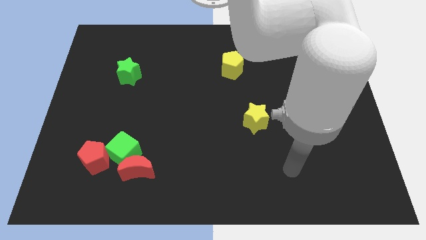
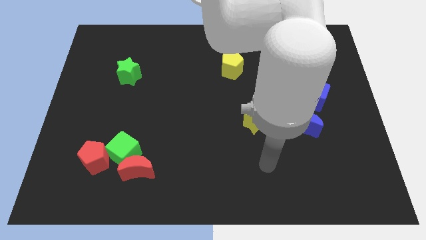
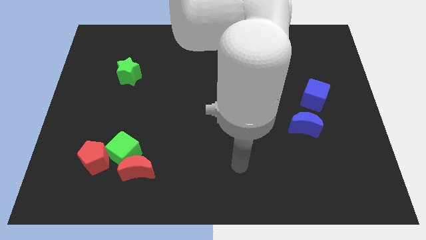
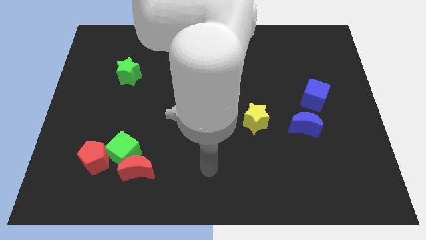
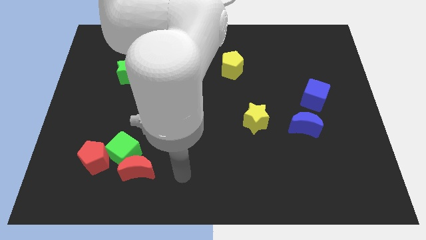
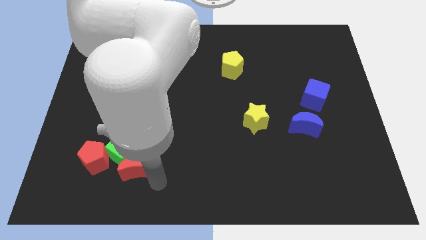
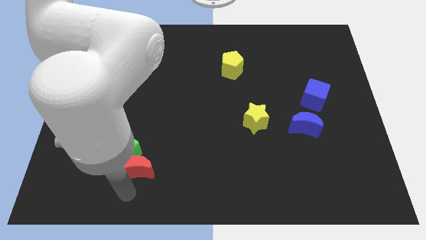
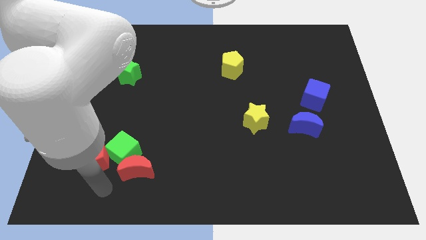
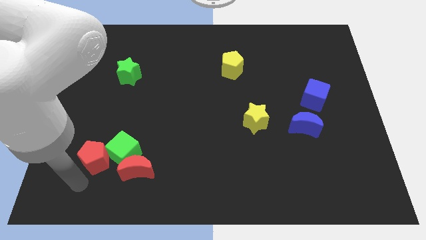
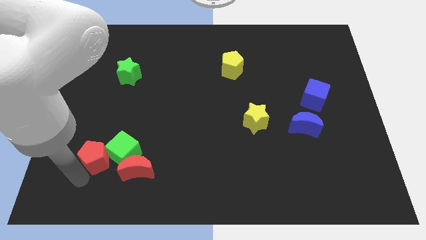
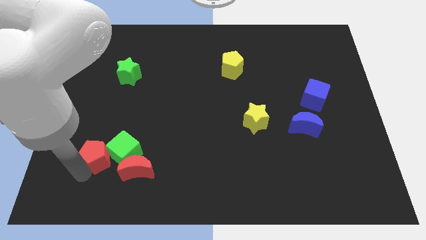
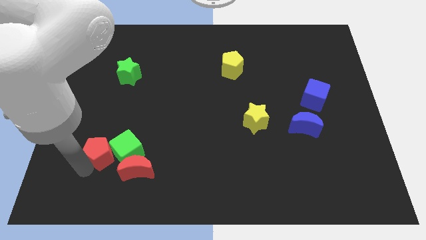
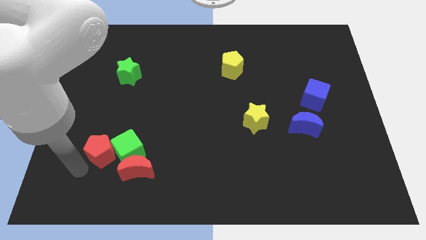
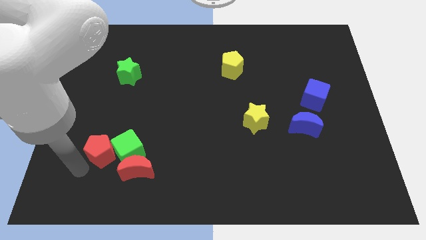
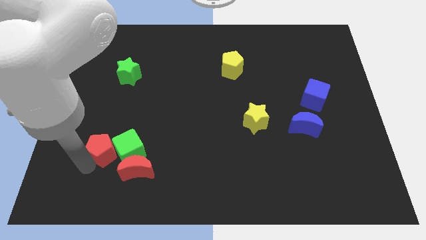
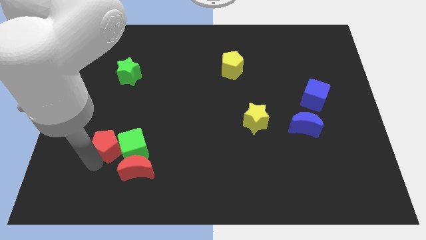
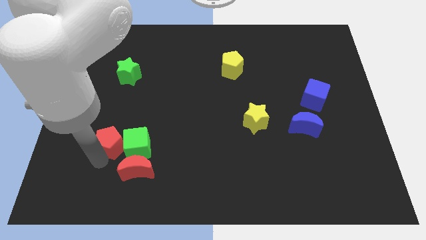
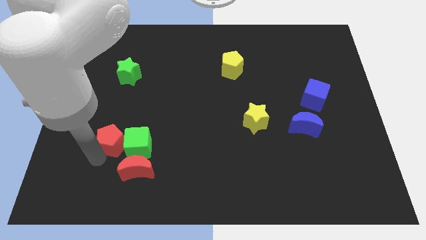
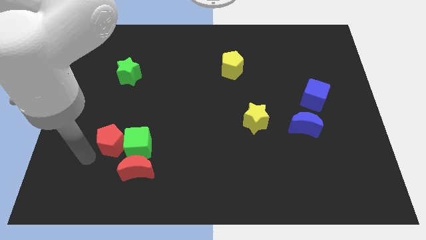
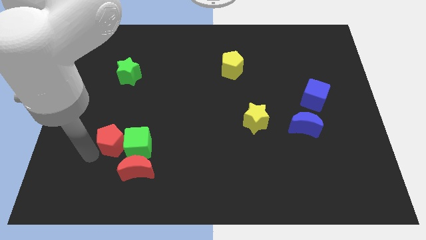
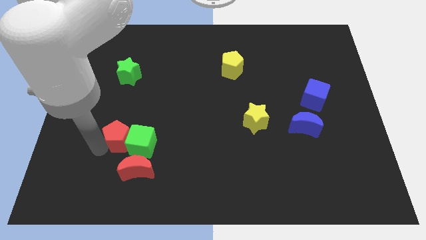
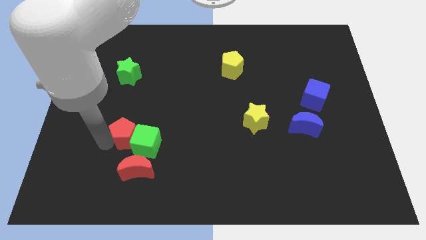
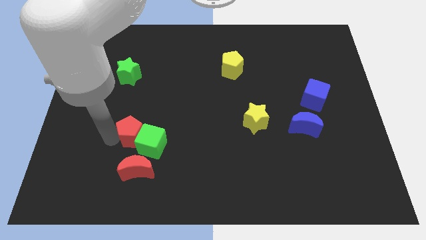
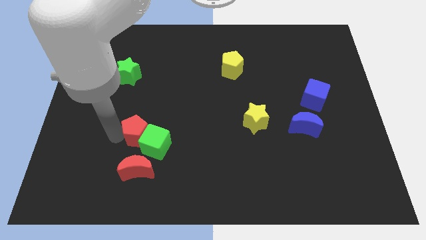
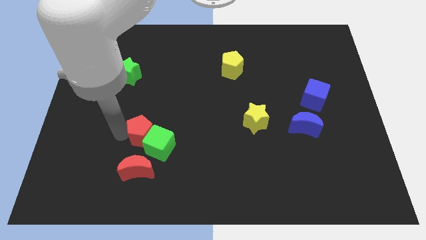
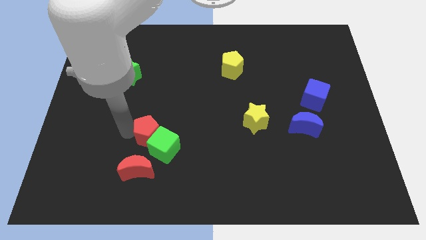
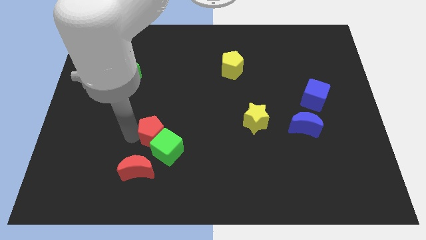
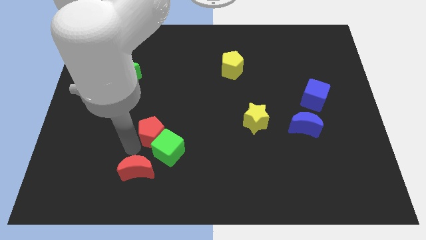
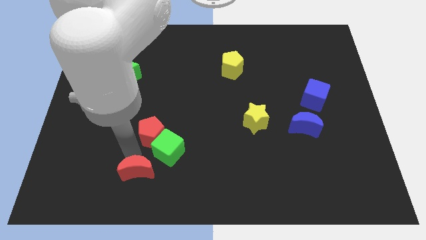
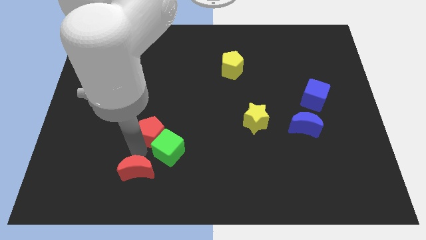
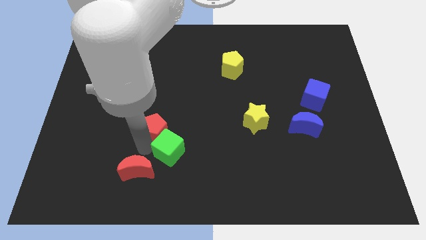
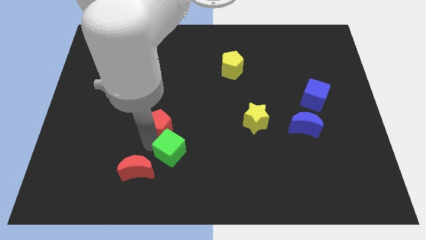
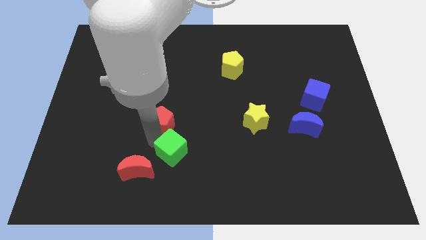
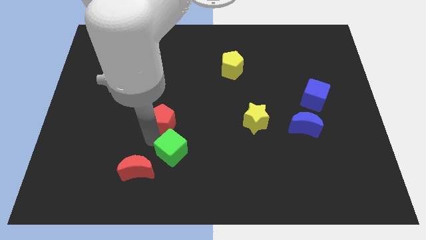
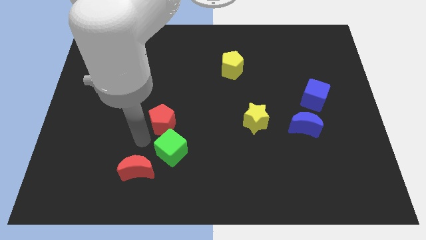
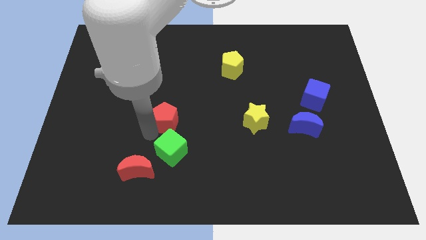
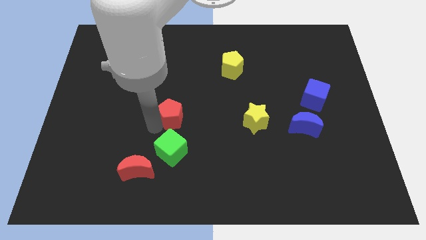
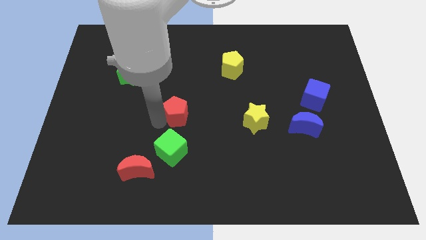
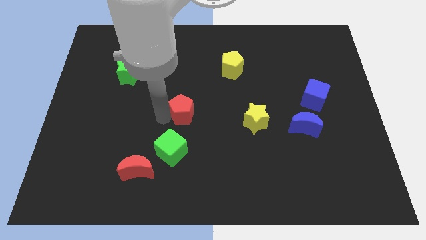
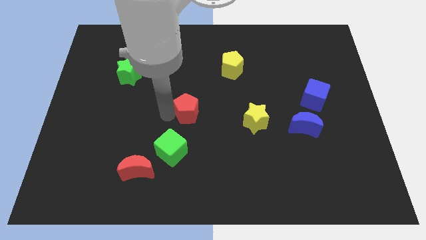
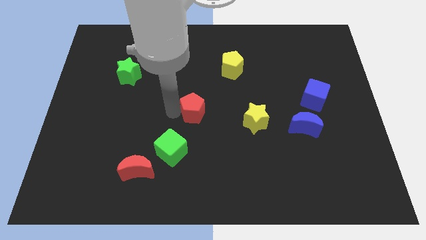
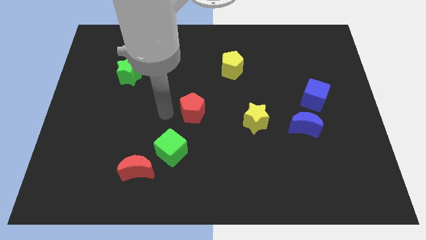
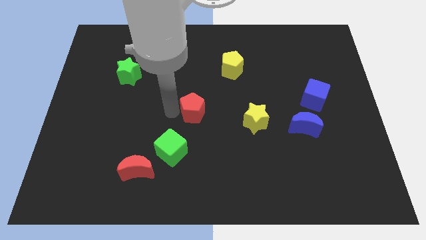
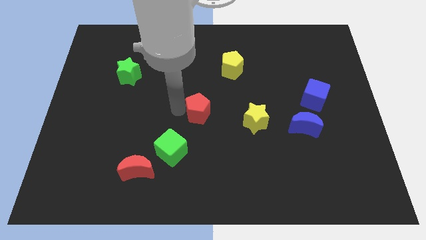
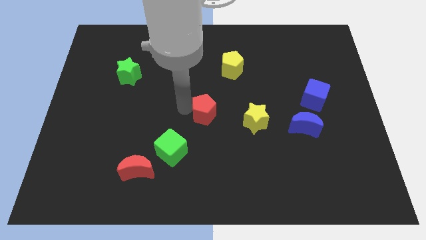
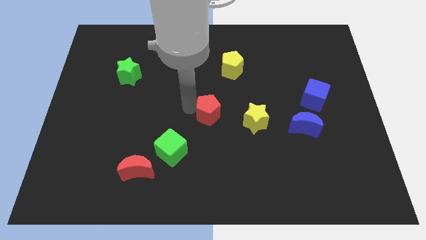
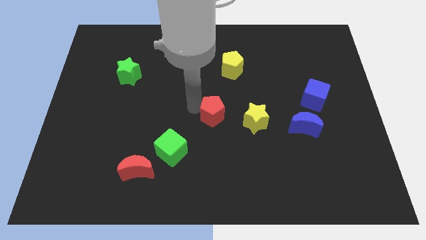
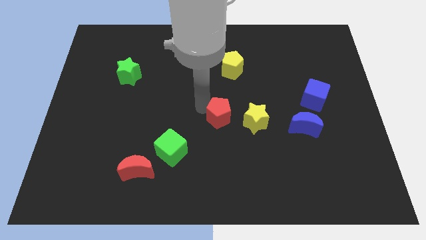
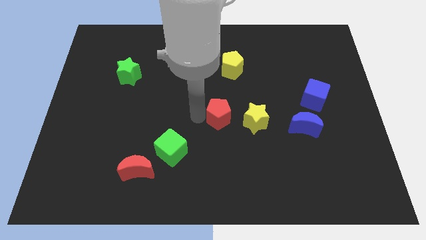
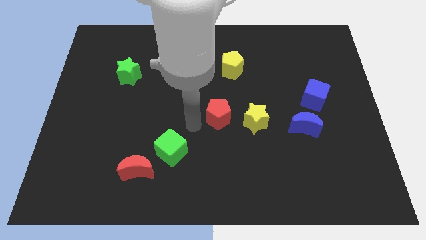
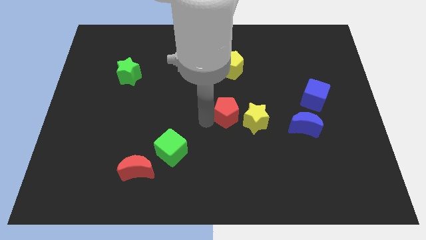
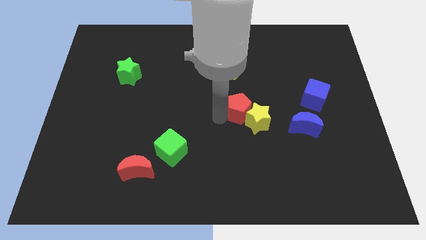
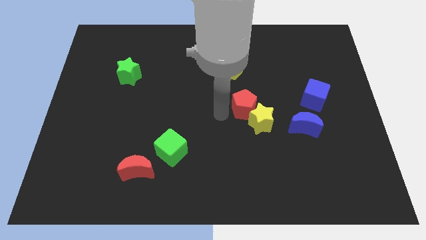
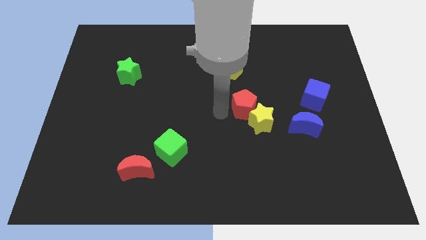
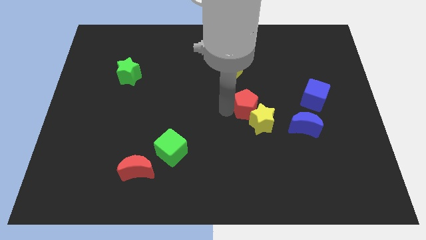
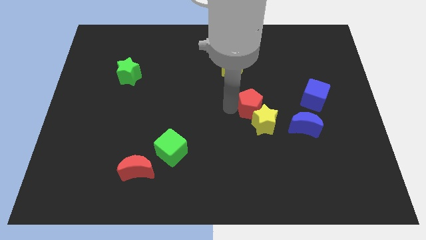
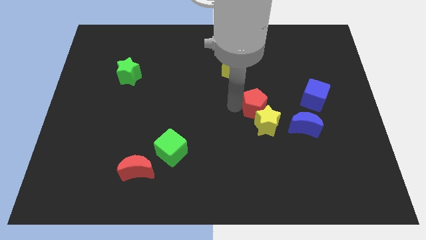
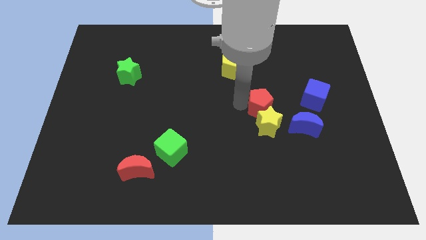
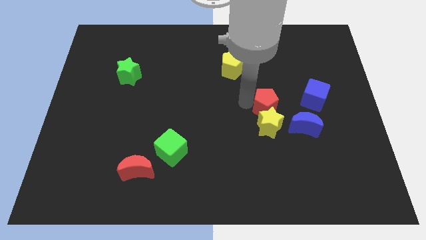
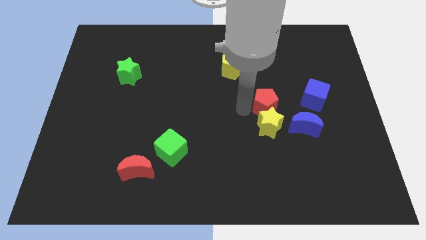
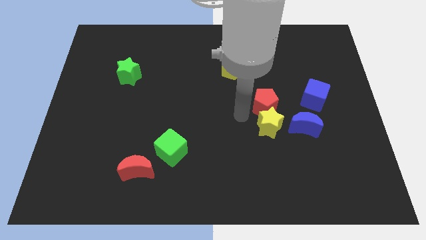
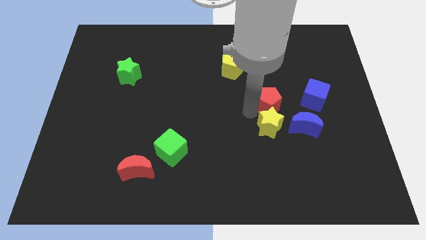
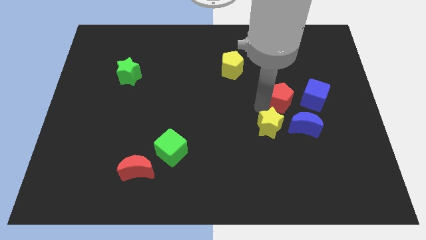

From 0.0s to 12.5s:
move the red pentagon to the top of the blue moon

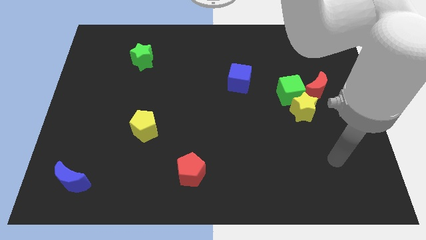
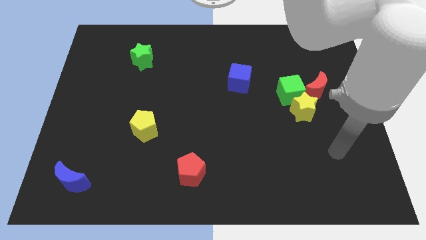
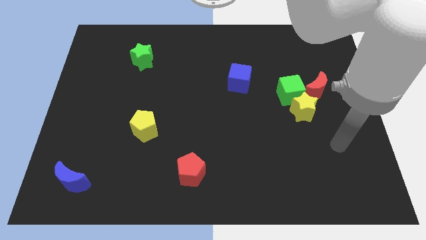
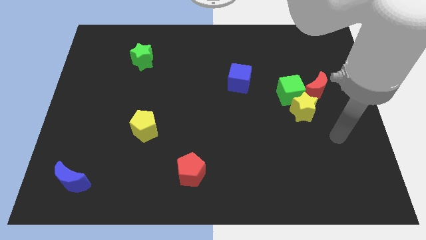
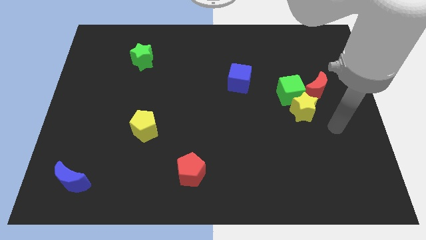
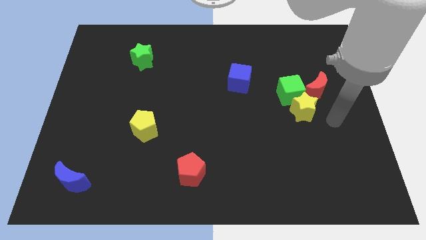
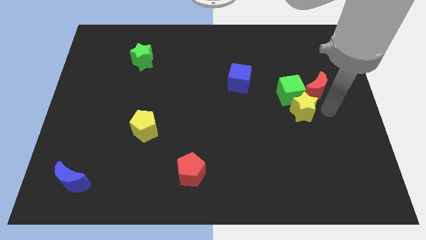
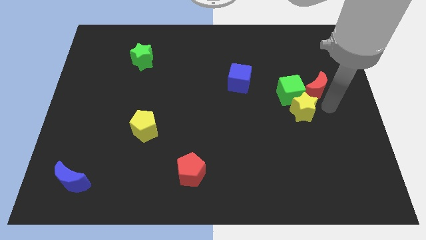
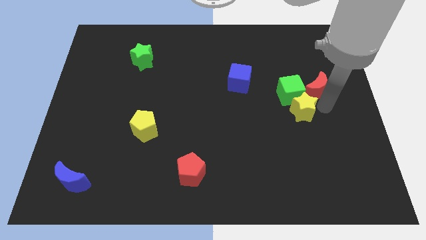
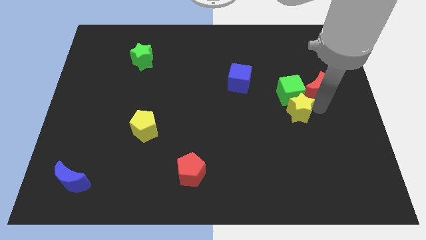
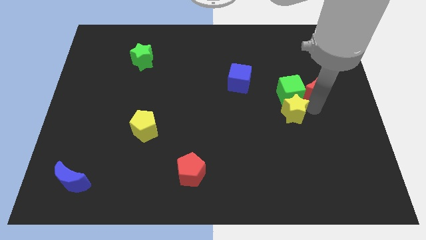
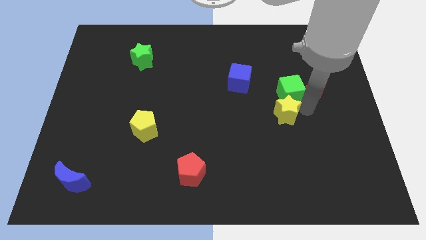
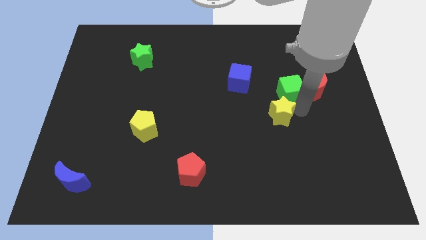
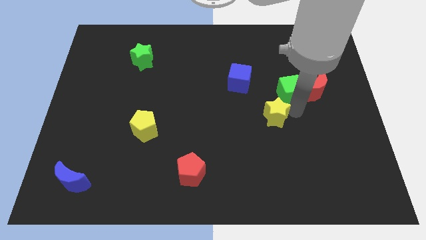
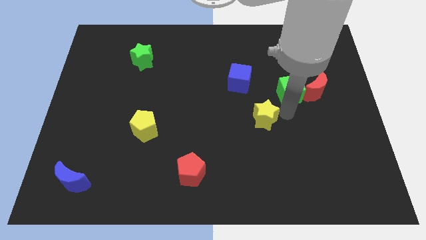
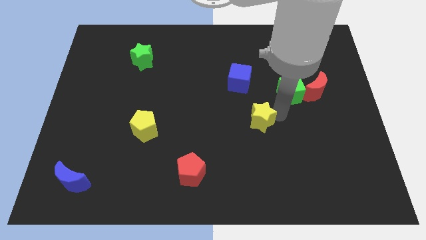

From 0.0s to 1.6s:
slide the yellow star below the blue cube
